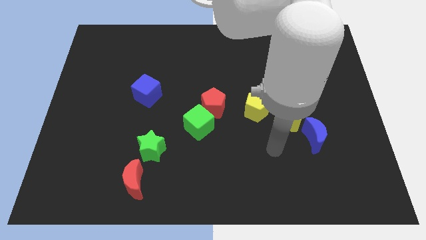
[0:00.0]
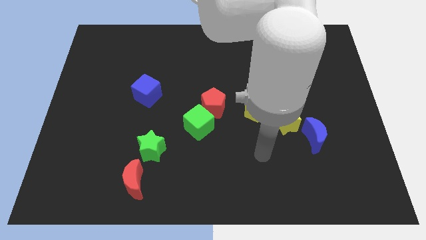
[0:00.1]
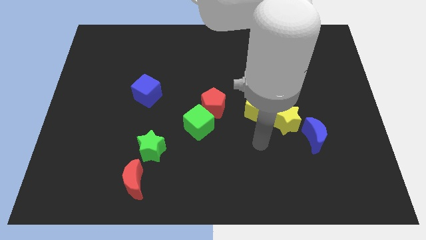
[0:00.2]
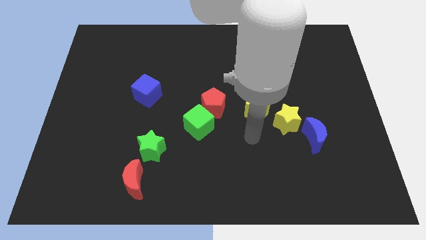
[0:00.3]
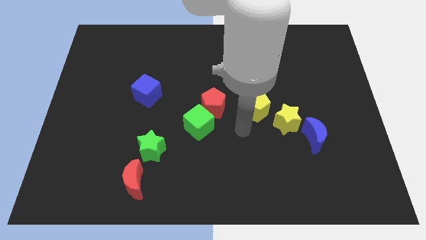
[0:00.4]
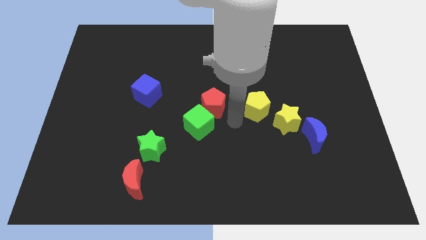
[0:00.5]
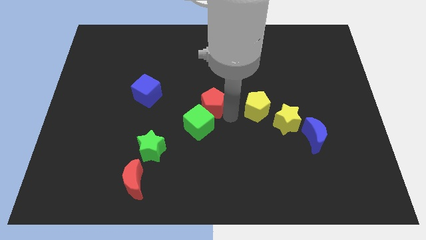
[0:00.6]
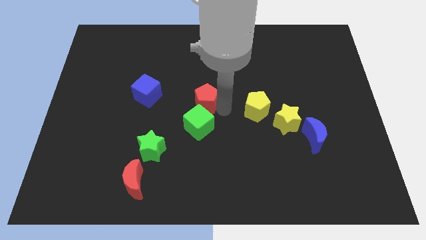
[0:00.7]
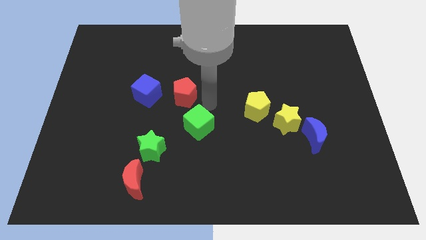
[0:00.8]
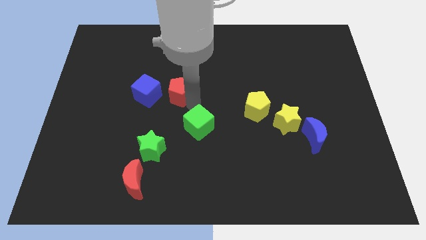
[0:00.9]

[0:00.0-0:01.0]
pull the green cube apart from the red pentagon

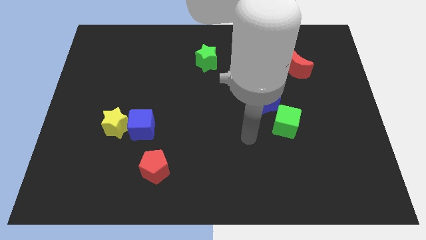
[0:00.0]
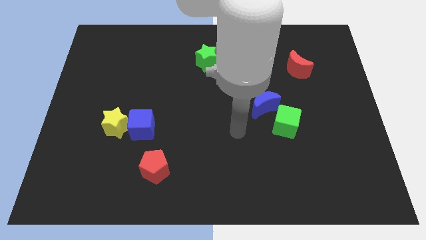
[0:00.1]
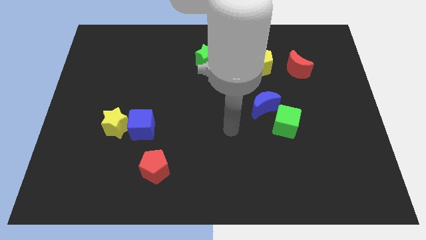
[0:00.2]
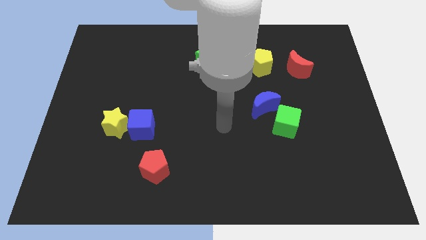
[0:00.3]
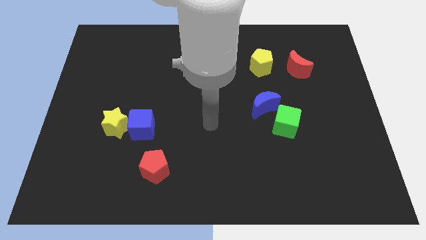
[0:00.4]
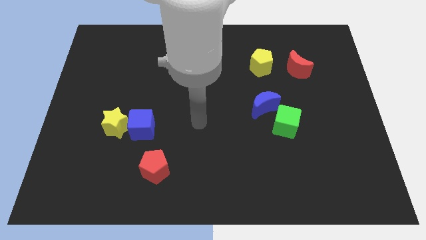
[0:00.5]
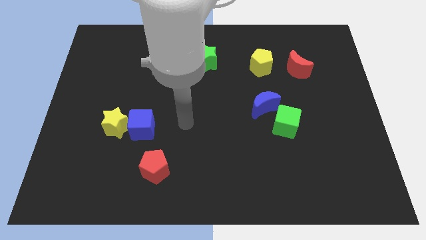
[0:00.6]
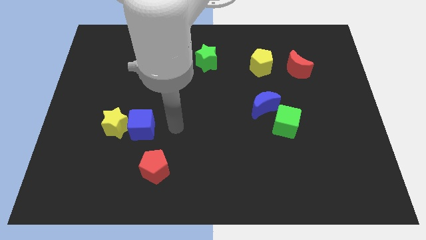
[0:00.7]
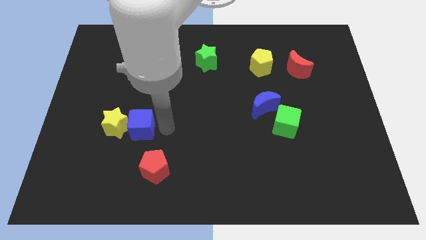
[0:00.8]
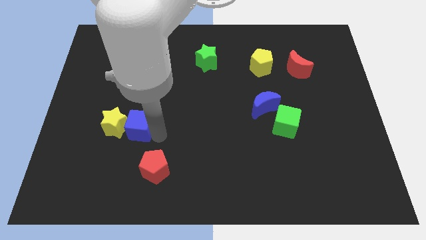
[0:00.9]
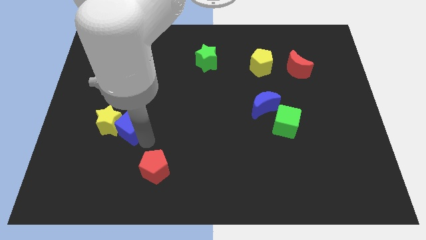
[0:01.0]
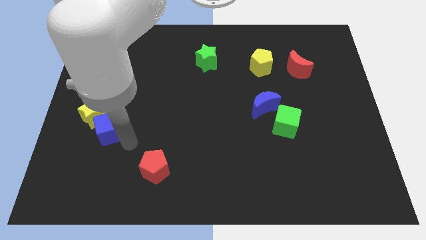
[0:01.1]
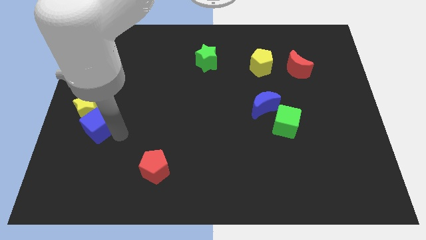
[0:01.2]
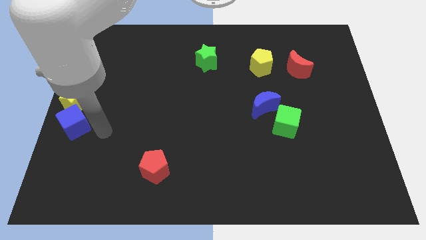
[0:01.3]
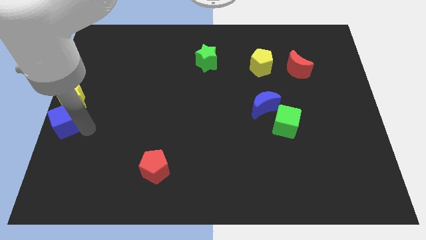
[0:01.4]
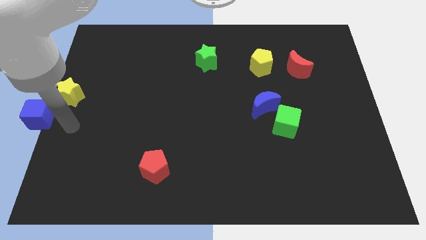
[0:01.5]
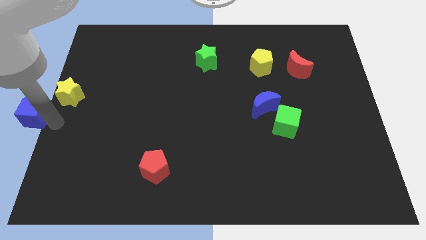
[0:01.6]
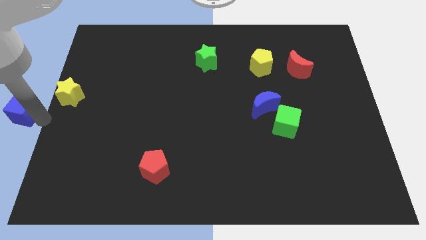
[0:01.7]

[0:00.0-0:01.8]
separate the blue cube from the yellow star

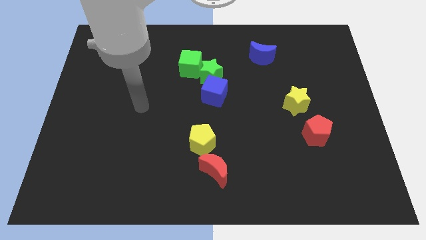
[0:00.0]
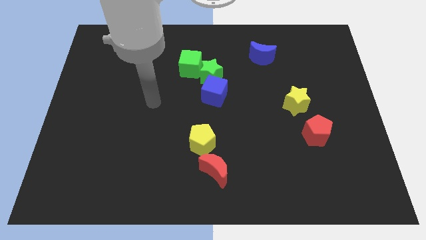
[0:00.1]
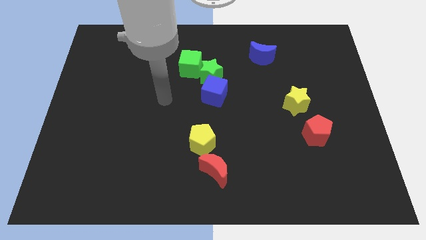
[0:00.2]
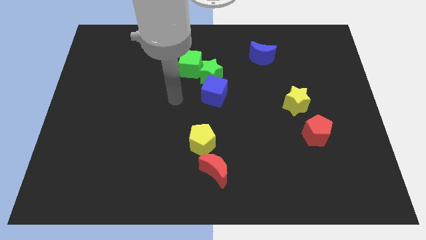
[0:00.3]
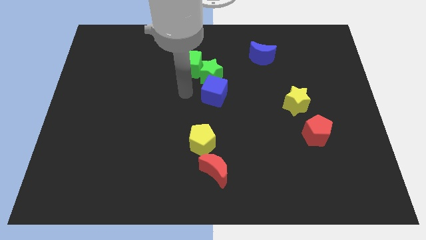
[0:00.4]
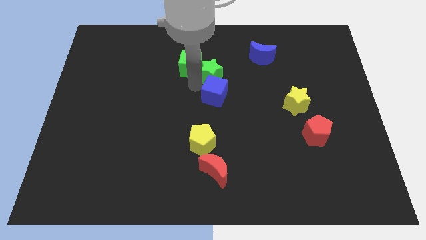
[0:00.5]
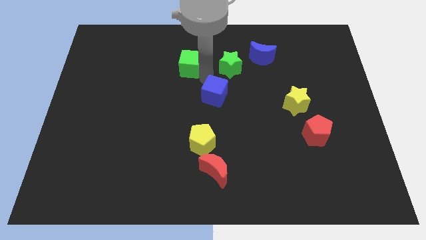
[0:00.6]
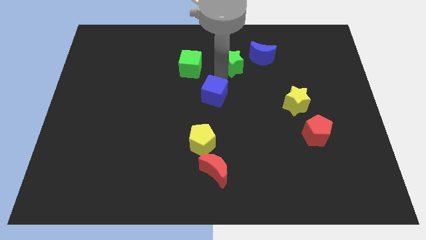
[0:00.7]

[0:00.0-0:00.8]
separate the blue cube from the green star

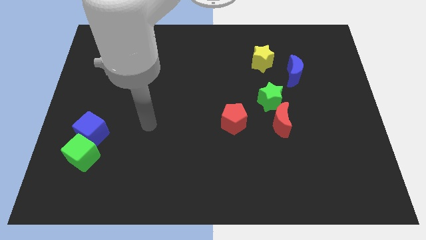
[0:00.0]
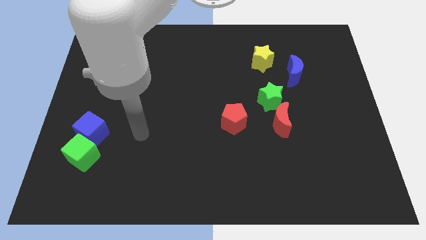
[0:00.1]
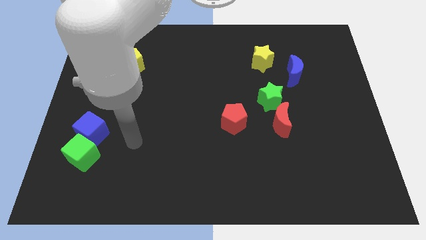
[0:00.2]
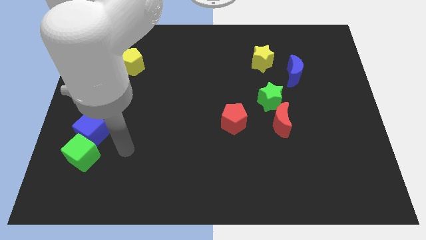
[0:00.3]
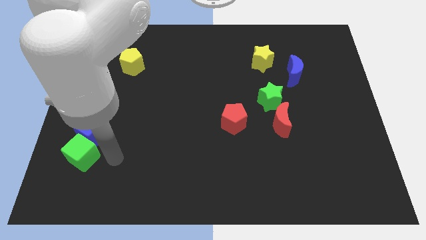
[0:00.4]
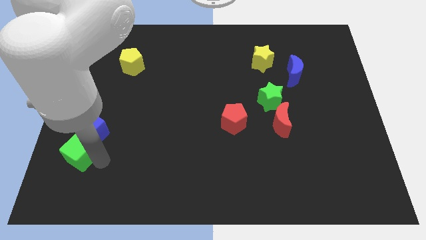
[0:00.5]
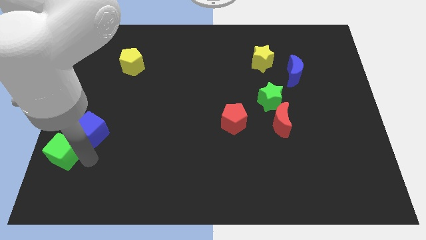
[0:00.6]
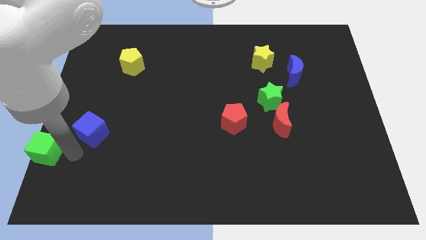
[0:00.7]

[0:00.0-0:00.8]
pull the blue cube apart from the green cube

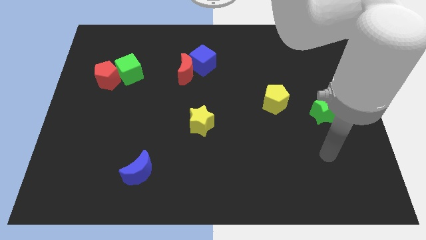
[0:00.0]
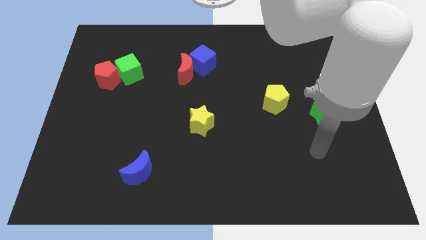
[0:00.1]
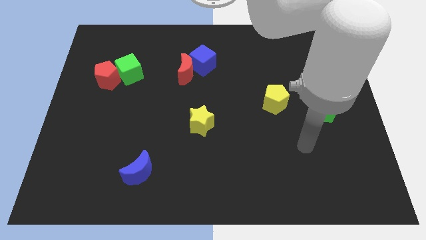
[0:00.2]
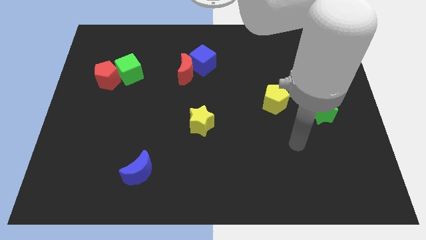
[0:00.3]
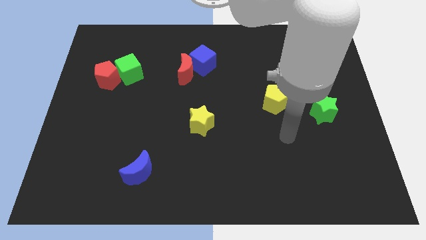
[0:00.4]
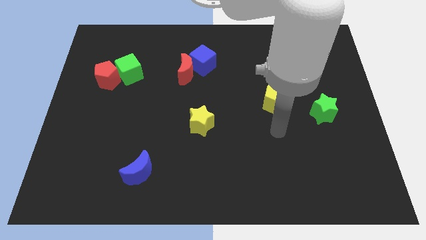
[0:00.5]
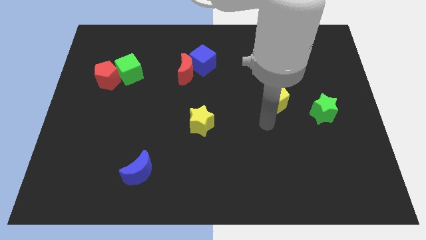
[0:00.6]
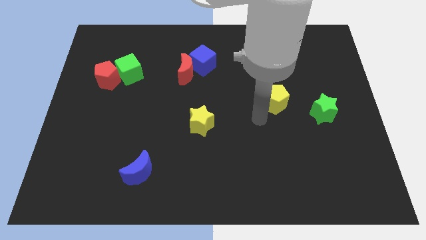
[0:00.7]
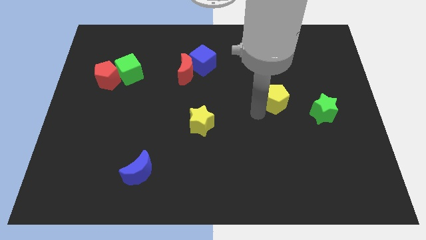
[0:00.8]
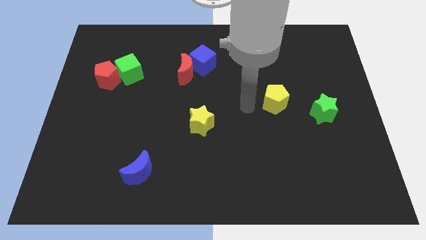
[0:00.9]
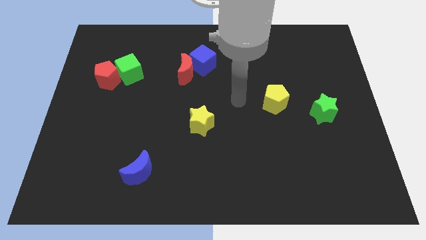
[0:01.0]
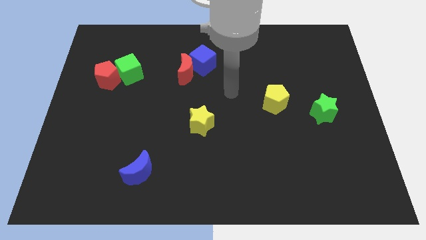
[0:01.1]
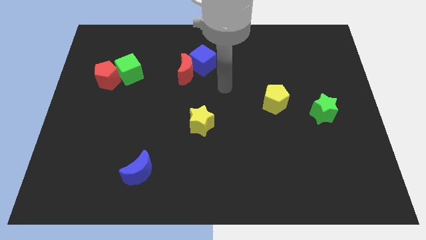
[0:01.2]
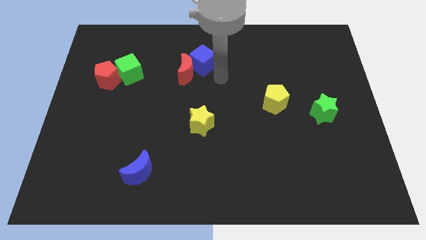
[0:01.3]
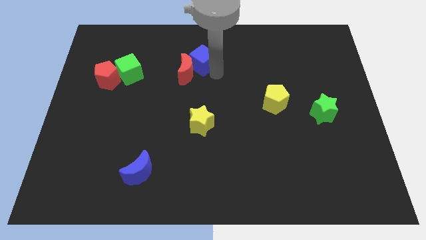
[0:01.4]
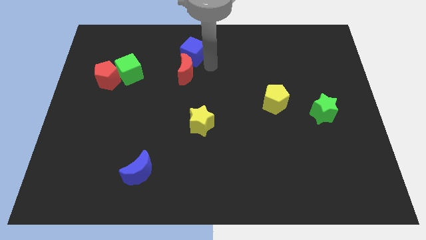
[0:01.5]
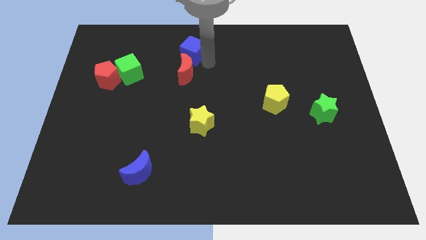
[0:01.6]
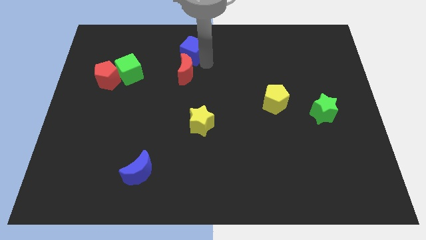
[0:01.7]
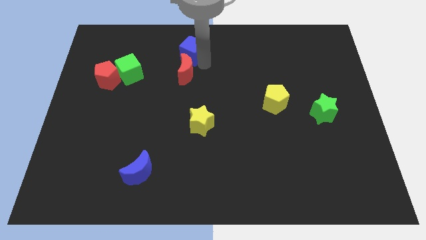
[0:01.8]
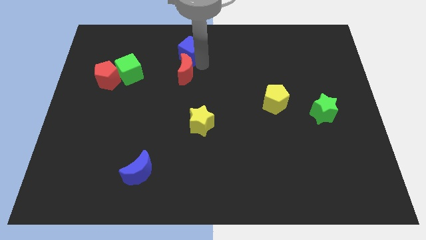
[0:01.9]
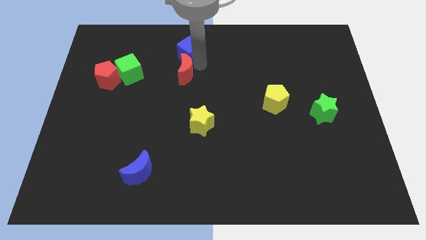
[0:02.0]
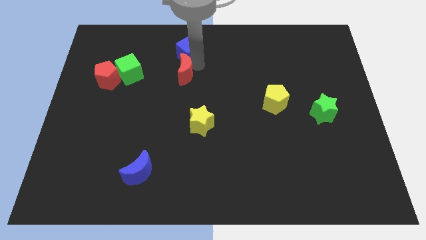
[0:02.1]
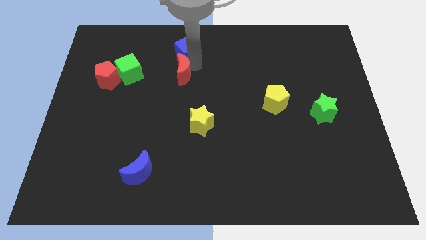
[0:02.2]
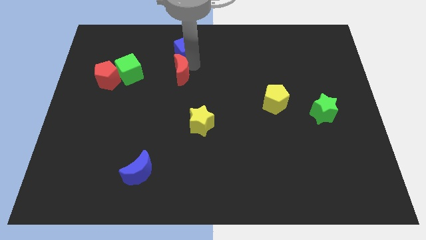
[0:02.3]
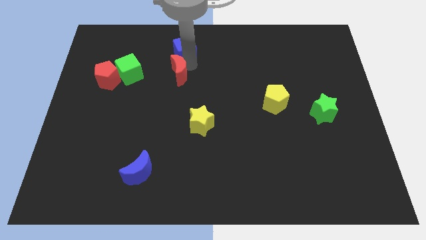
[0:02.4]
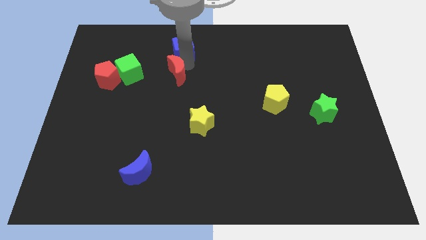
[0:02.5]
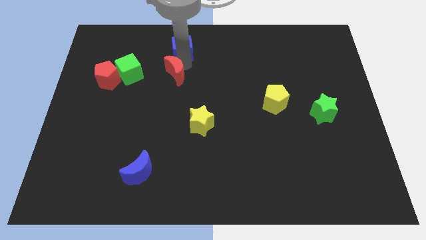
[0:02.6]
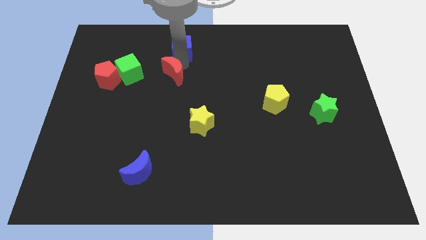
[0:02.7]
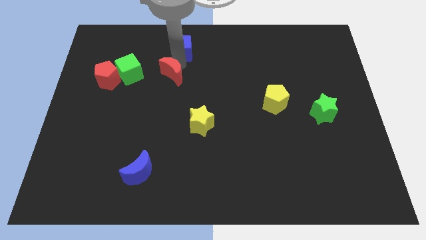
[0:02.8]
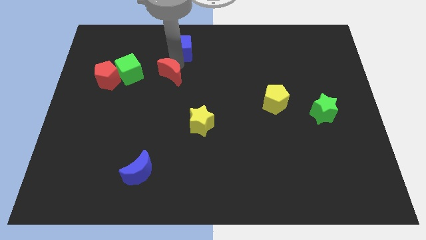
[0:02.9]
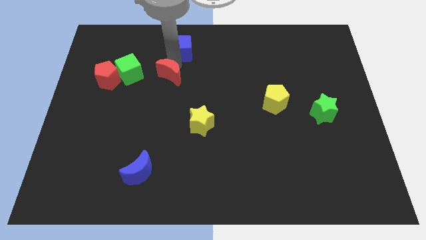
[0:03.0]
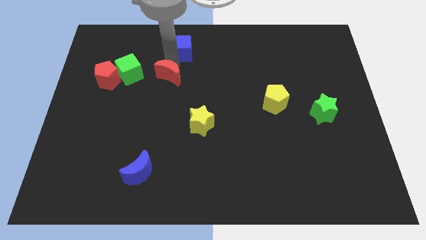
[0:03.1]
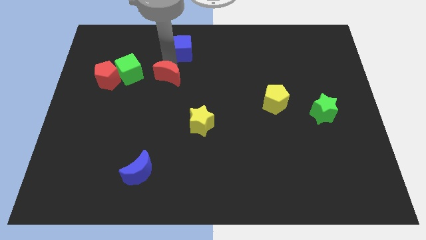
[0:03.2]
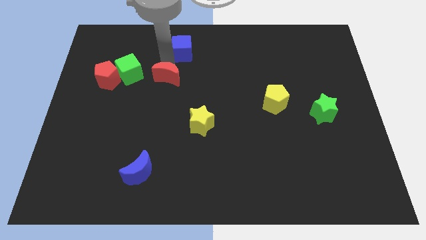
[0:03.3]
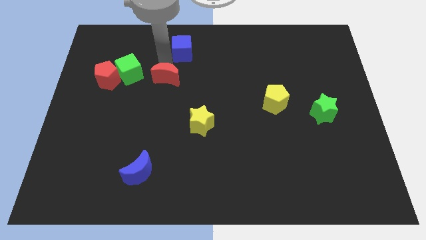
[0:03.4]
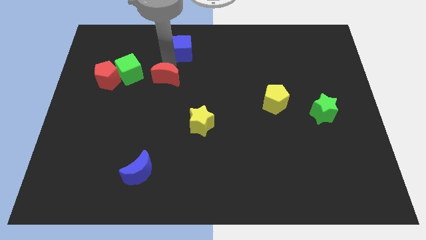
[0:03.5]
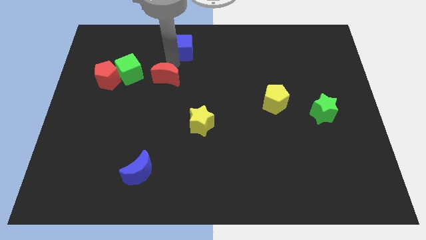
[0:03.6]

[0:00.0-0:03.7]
separate the red moon from the blue cube

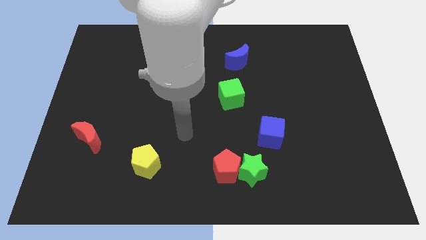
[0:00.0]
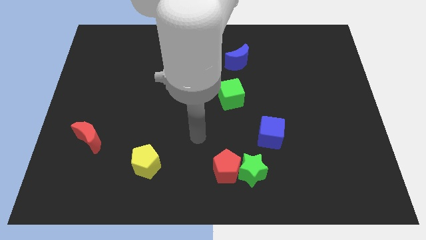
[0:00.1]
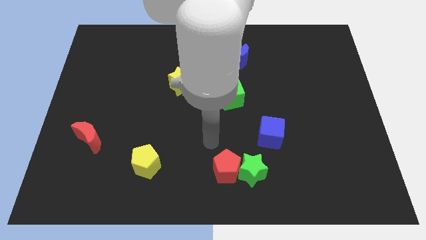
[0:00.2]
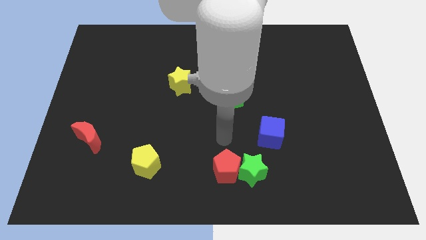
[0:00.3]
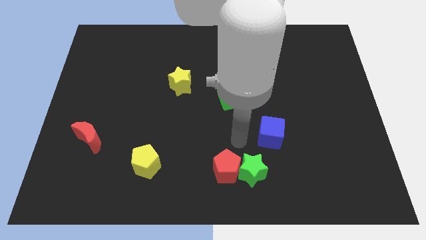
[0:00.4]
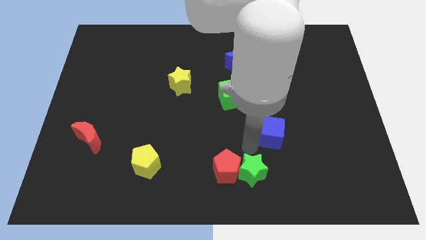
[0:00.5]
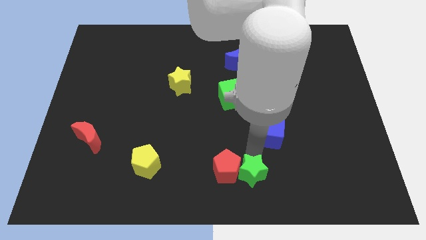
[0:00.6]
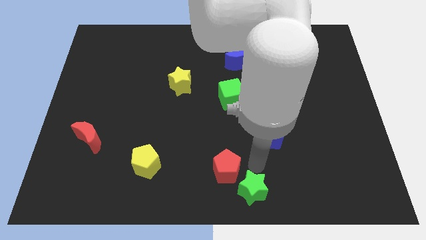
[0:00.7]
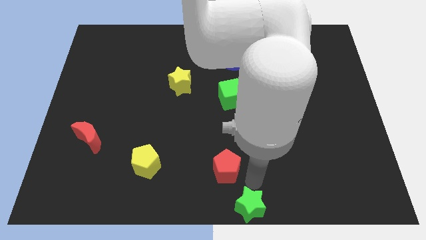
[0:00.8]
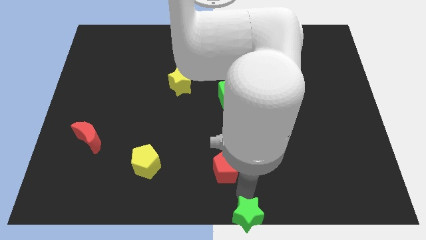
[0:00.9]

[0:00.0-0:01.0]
pull the red pentagon apart from the green star

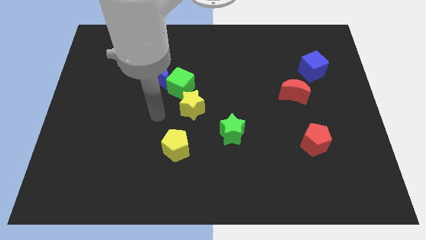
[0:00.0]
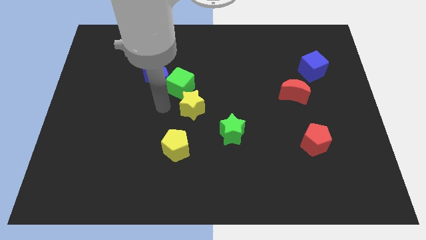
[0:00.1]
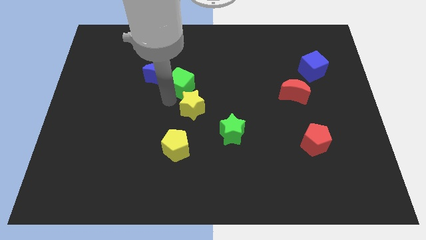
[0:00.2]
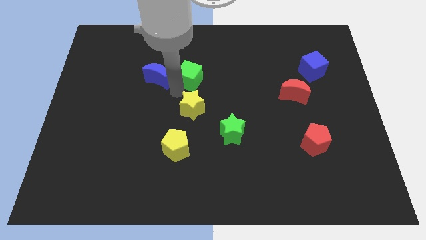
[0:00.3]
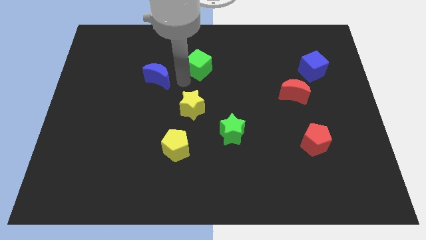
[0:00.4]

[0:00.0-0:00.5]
pull the blue moon apart from the green cube
